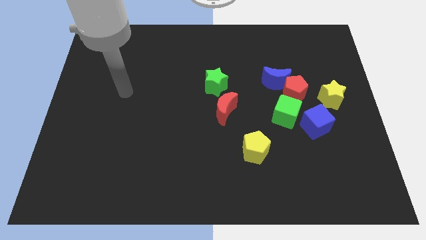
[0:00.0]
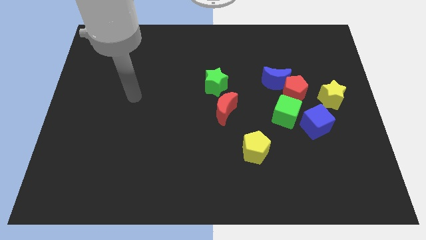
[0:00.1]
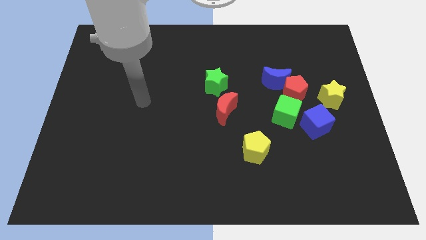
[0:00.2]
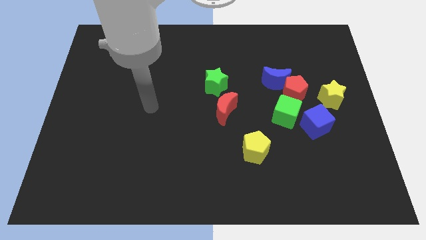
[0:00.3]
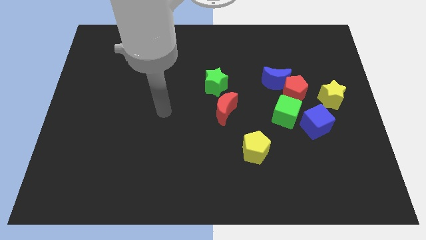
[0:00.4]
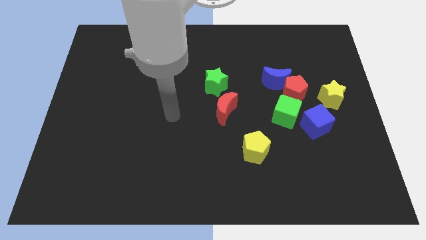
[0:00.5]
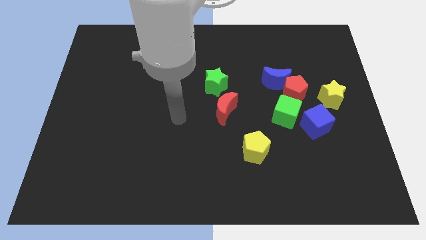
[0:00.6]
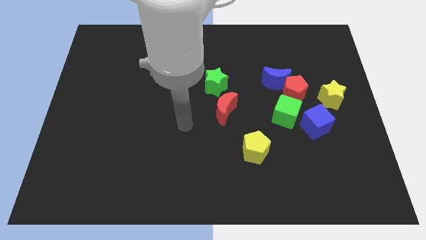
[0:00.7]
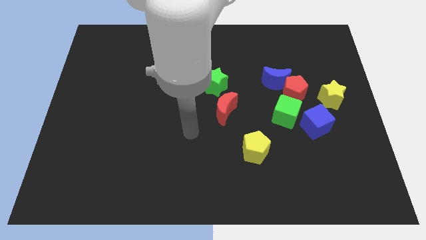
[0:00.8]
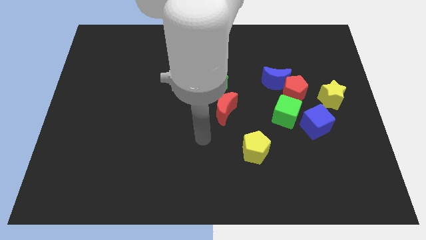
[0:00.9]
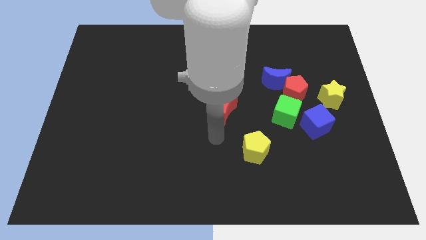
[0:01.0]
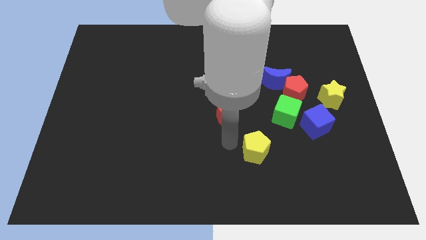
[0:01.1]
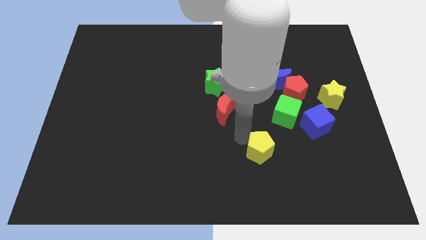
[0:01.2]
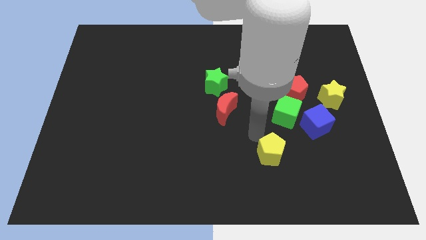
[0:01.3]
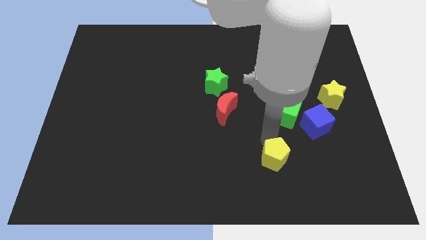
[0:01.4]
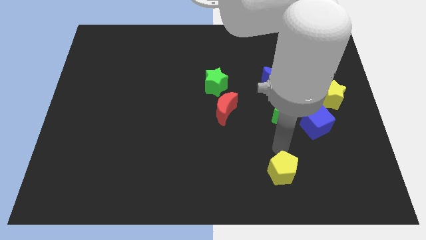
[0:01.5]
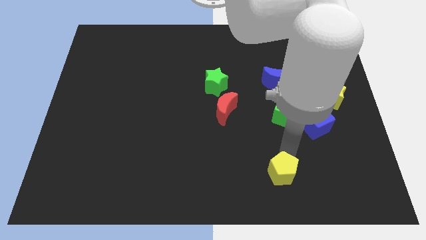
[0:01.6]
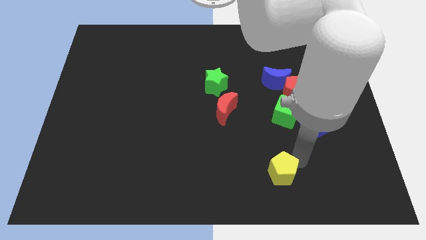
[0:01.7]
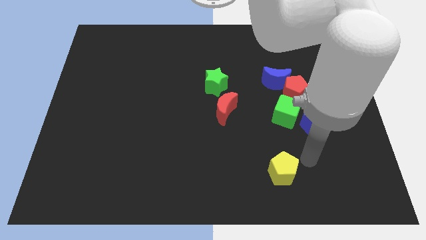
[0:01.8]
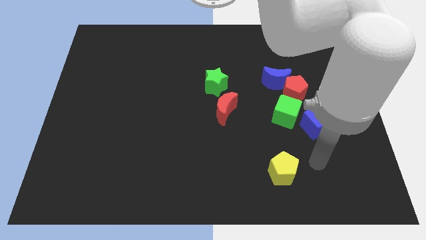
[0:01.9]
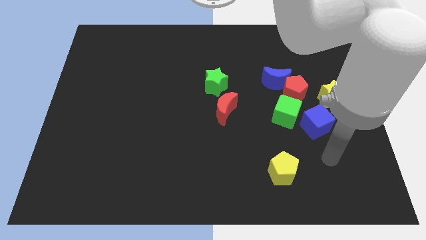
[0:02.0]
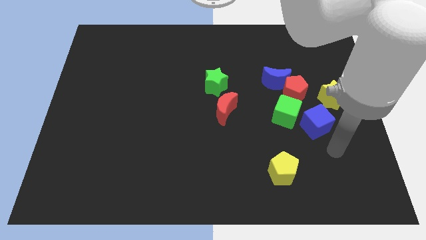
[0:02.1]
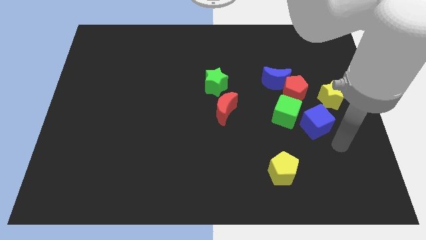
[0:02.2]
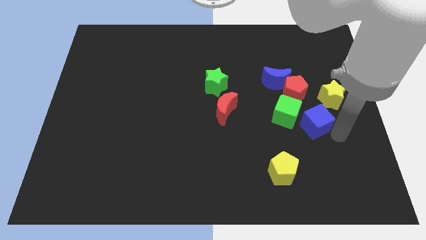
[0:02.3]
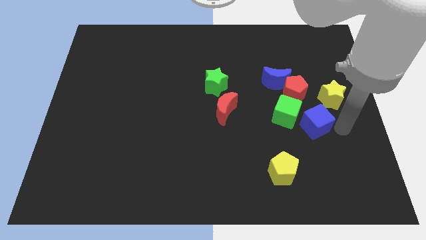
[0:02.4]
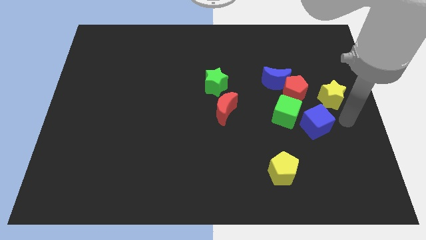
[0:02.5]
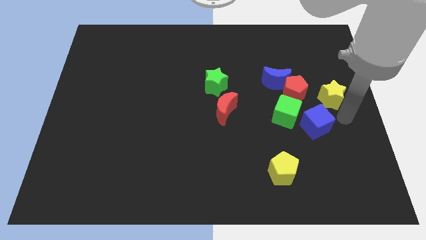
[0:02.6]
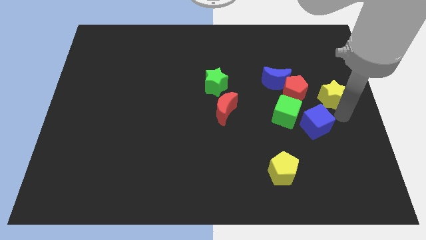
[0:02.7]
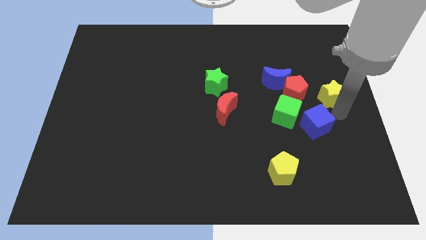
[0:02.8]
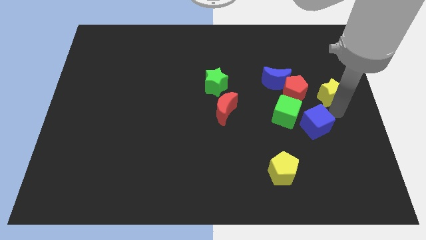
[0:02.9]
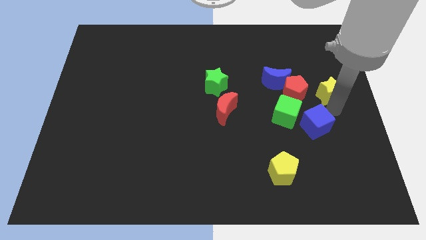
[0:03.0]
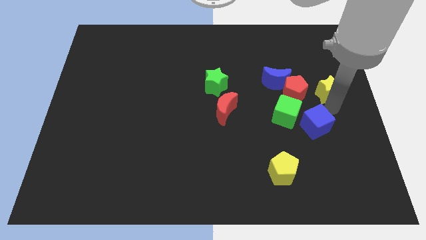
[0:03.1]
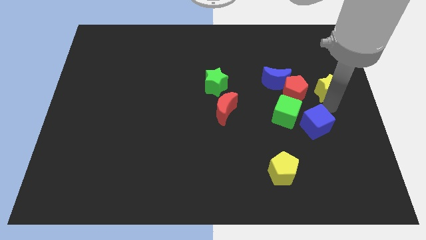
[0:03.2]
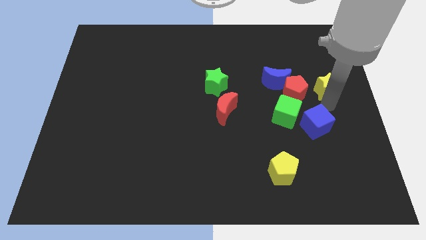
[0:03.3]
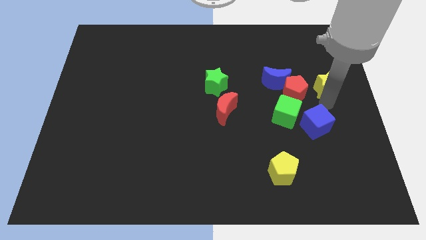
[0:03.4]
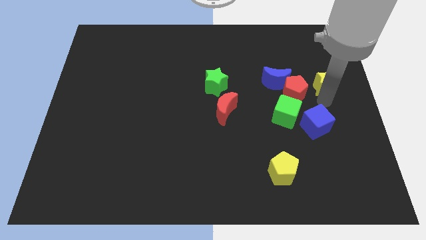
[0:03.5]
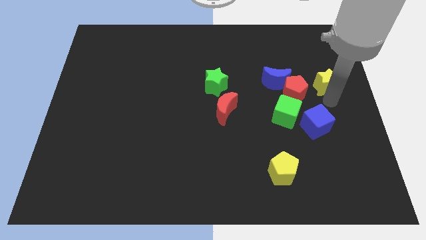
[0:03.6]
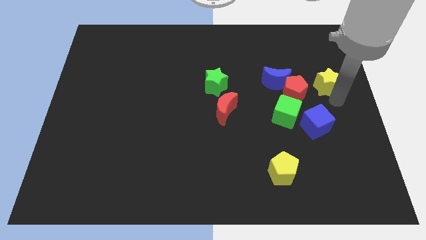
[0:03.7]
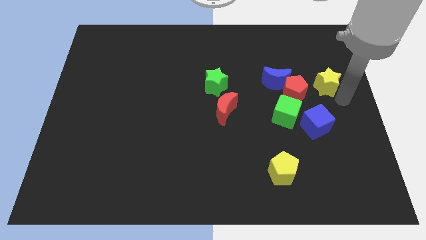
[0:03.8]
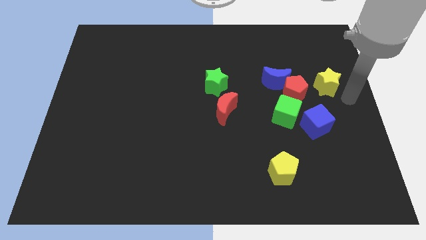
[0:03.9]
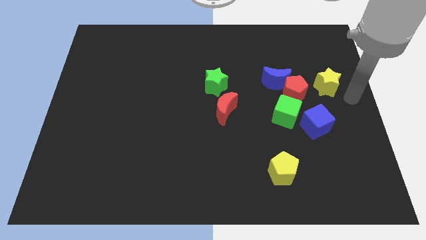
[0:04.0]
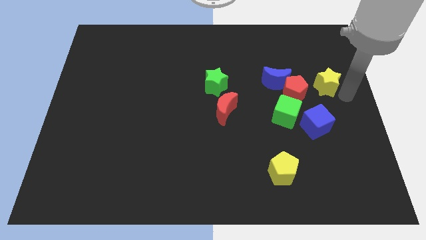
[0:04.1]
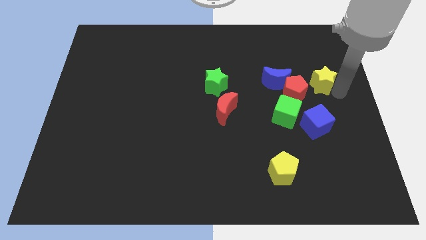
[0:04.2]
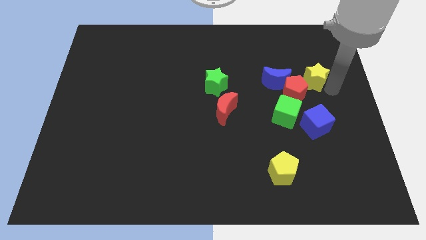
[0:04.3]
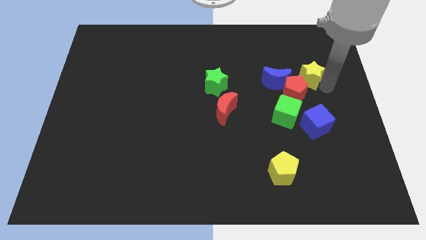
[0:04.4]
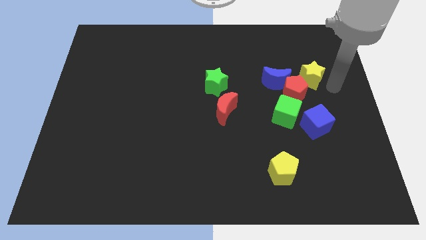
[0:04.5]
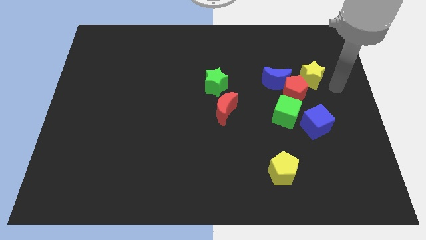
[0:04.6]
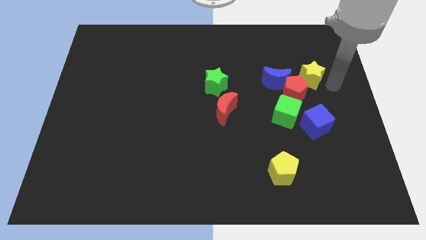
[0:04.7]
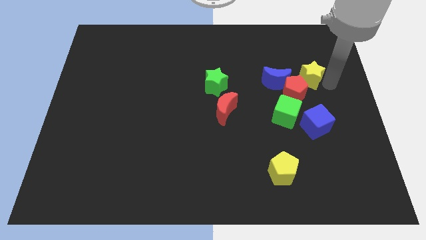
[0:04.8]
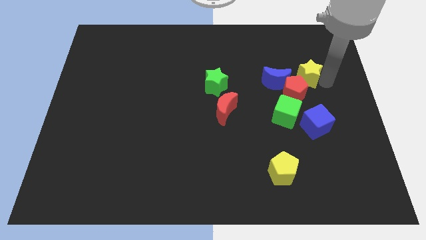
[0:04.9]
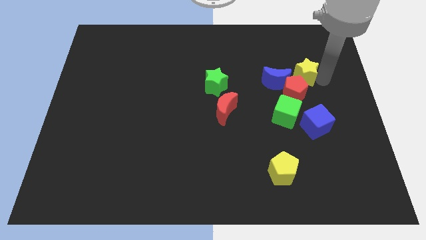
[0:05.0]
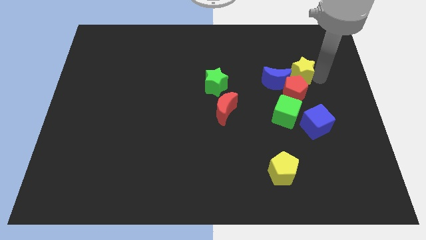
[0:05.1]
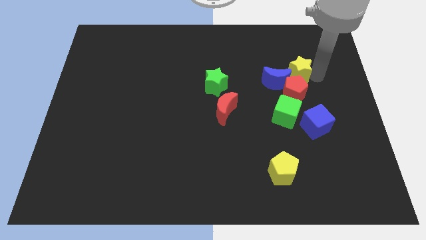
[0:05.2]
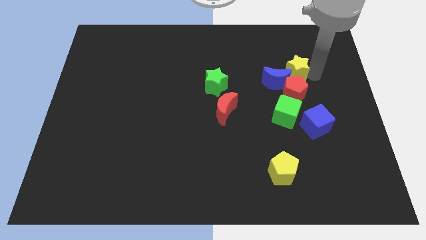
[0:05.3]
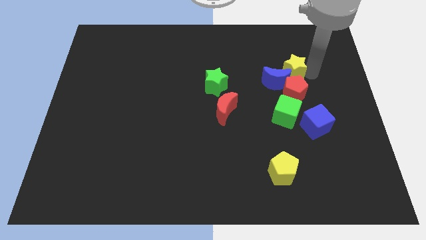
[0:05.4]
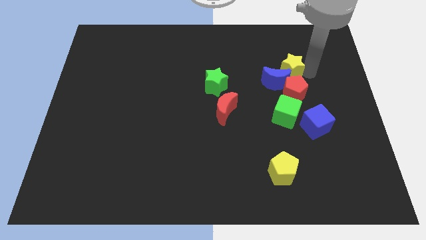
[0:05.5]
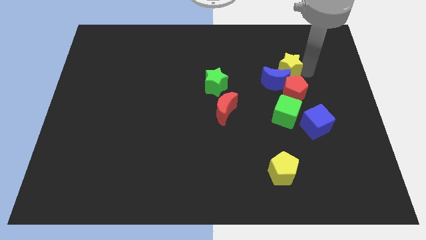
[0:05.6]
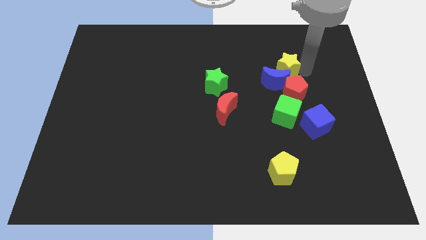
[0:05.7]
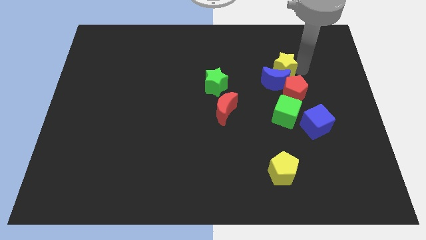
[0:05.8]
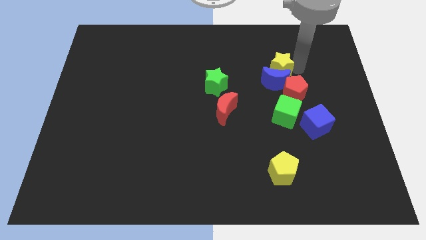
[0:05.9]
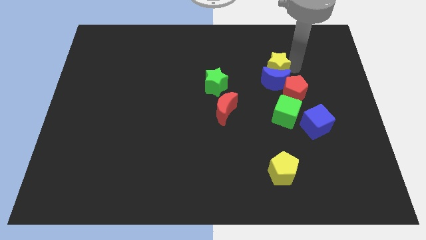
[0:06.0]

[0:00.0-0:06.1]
slightly slide the yellow star left

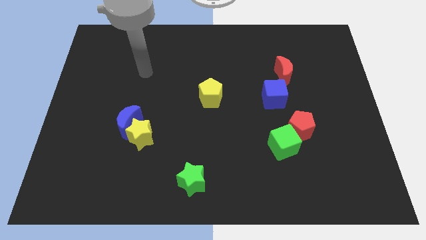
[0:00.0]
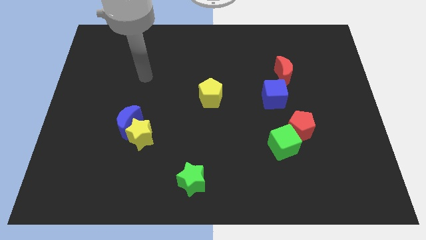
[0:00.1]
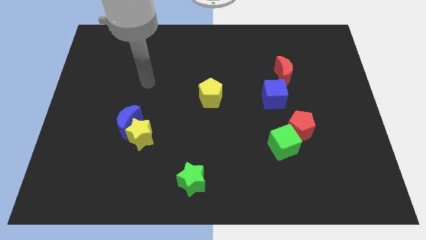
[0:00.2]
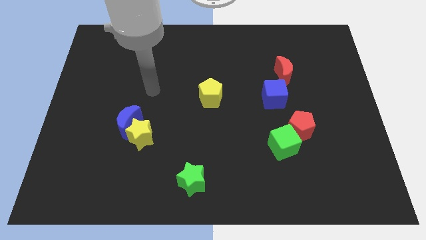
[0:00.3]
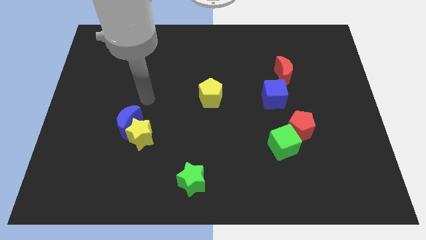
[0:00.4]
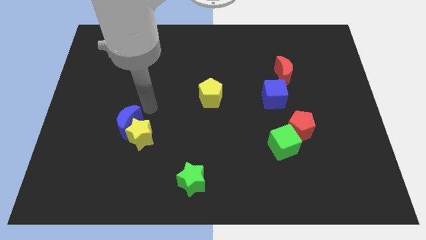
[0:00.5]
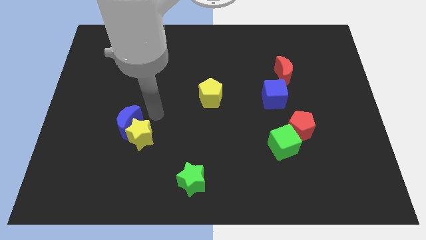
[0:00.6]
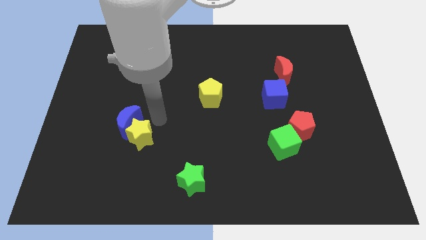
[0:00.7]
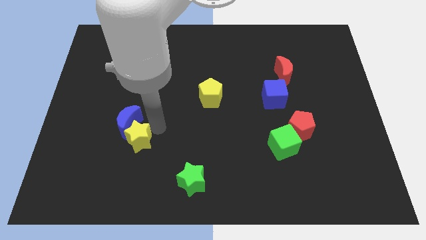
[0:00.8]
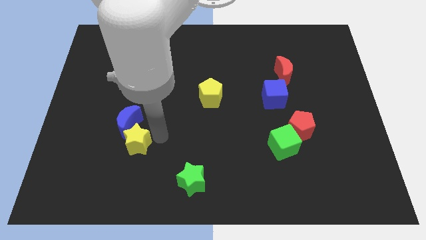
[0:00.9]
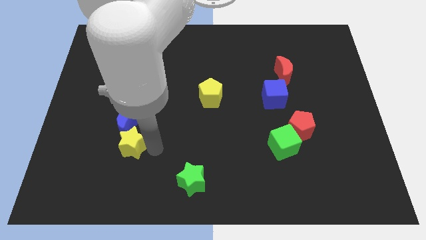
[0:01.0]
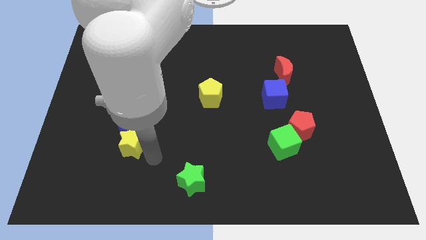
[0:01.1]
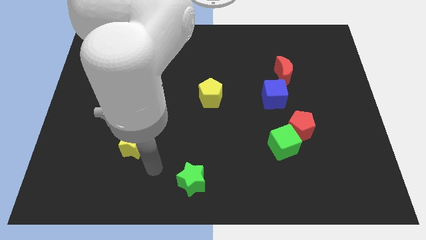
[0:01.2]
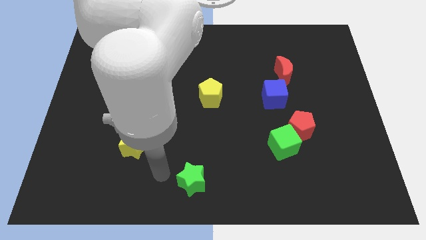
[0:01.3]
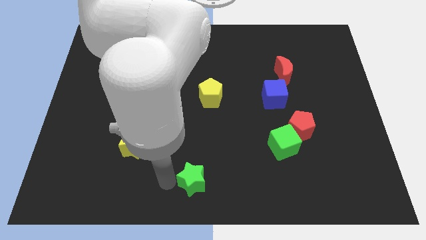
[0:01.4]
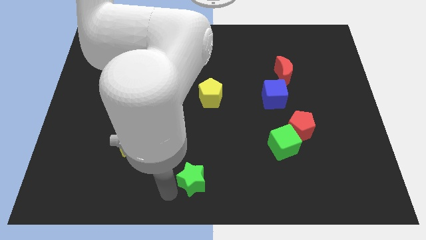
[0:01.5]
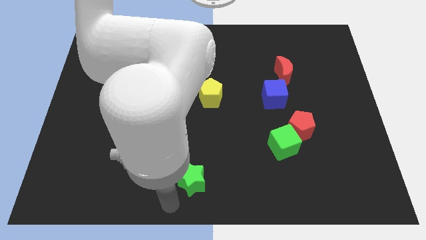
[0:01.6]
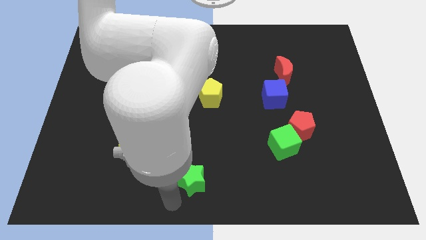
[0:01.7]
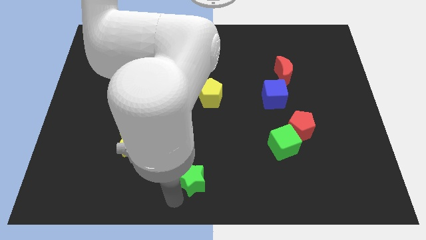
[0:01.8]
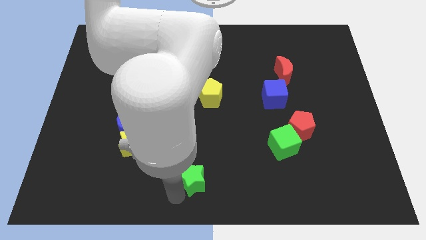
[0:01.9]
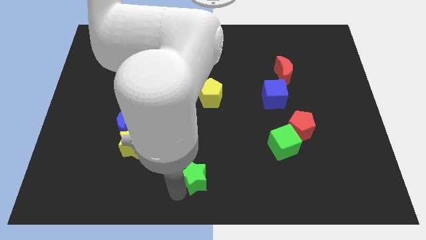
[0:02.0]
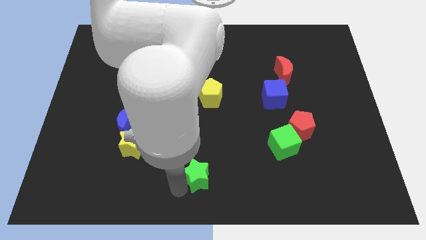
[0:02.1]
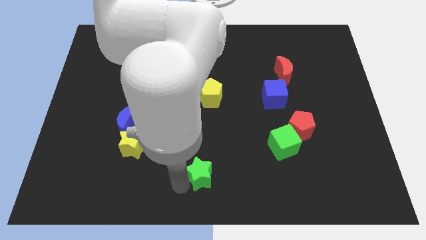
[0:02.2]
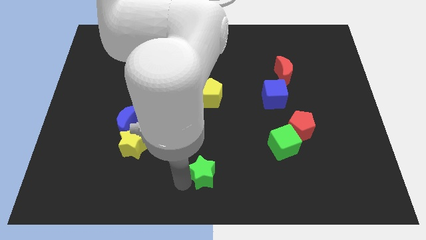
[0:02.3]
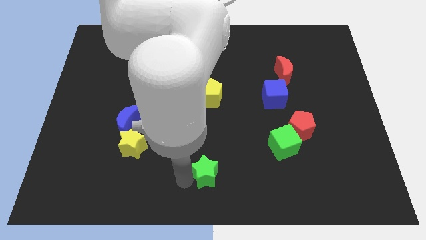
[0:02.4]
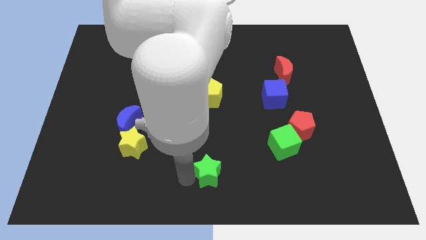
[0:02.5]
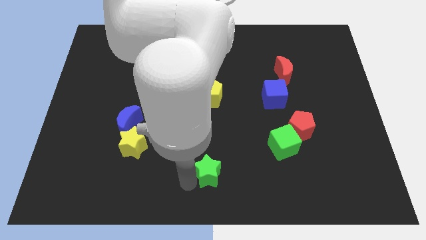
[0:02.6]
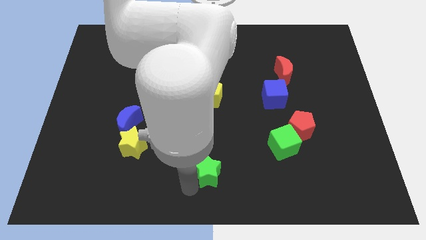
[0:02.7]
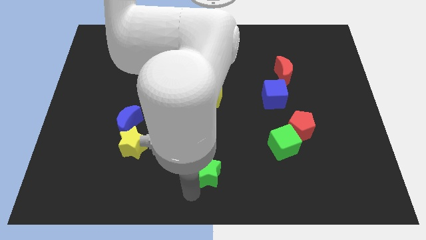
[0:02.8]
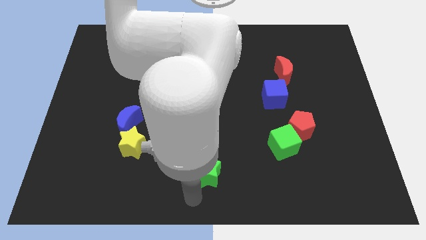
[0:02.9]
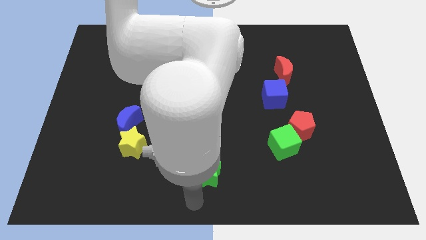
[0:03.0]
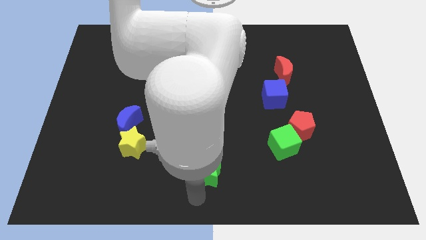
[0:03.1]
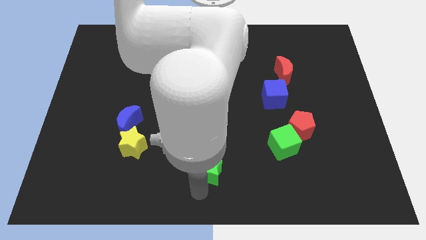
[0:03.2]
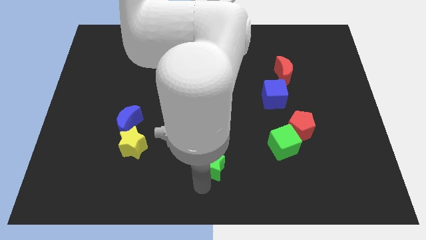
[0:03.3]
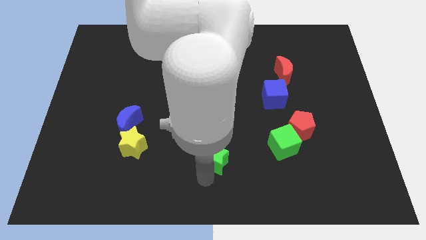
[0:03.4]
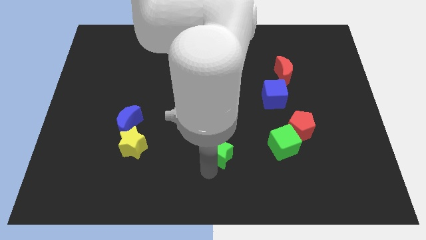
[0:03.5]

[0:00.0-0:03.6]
slightly move the green star up and to the right
